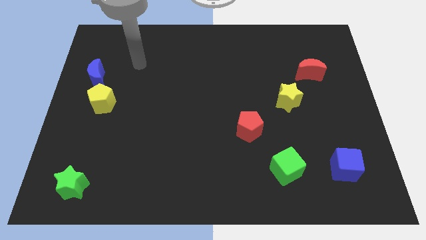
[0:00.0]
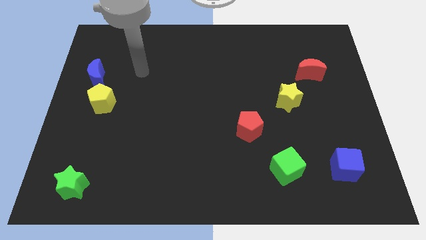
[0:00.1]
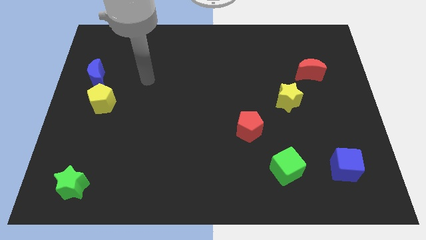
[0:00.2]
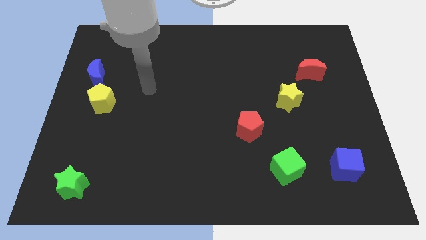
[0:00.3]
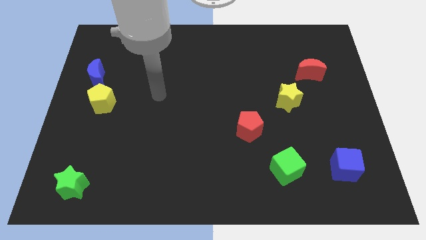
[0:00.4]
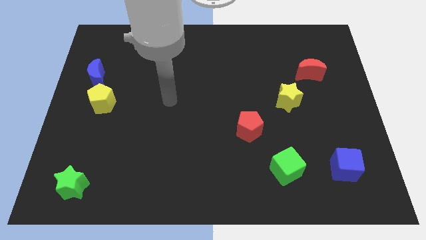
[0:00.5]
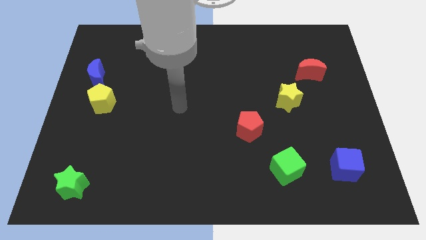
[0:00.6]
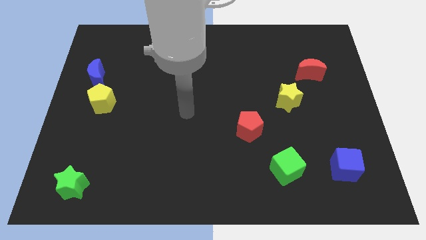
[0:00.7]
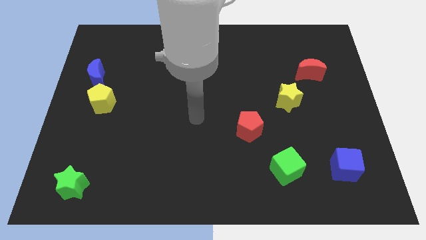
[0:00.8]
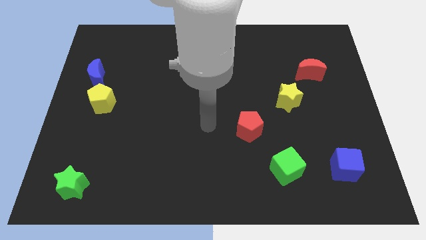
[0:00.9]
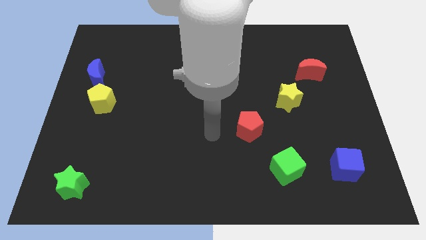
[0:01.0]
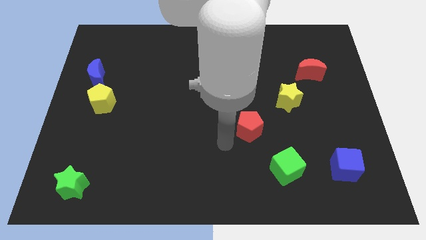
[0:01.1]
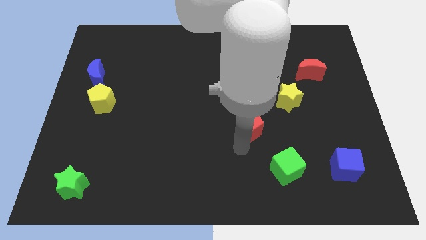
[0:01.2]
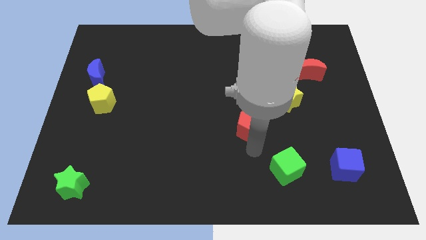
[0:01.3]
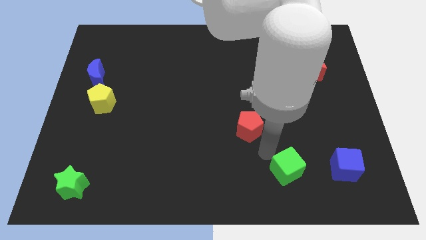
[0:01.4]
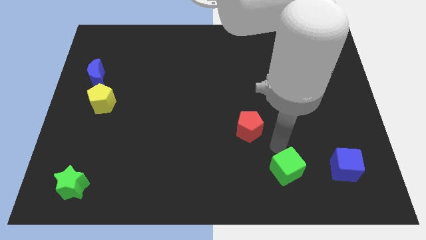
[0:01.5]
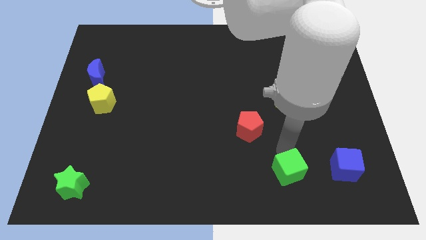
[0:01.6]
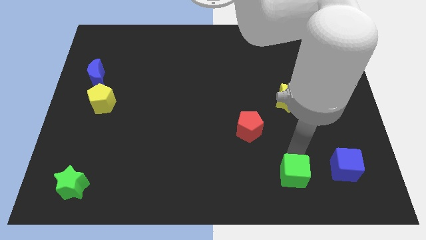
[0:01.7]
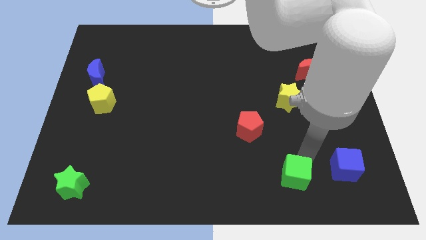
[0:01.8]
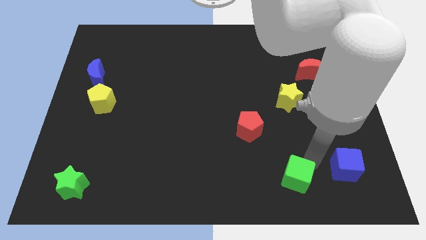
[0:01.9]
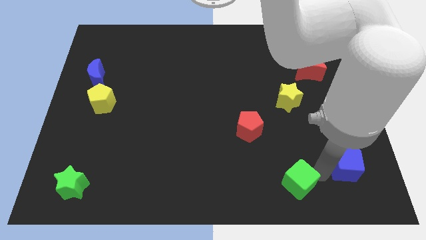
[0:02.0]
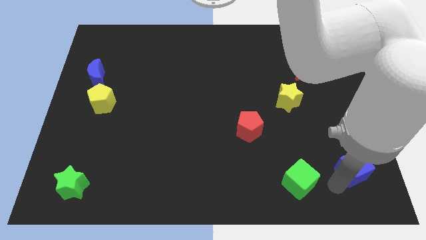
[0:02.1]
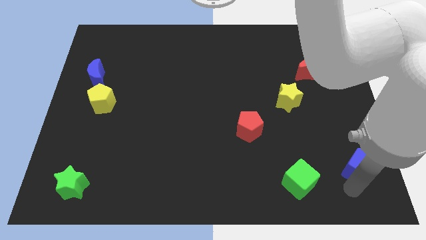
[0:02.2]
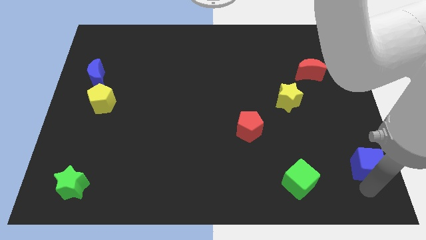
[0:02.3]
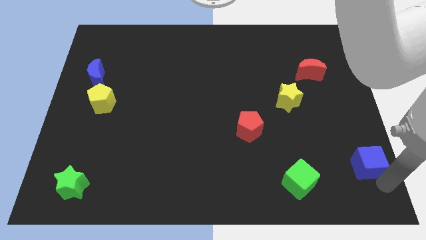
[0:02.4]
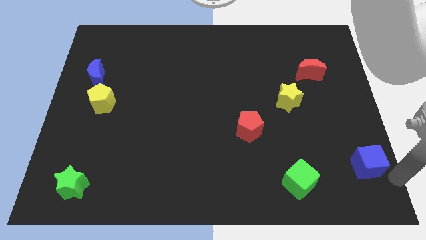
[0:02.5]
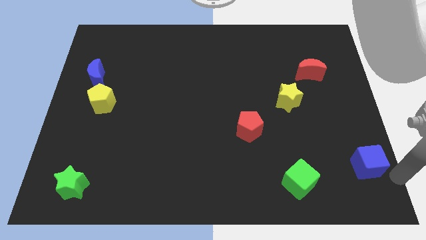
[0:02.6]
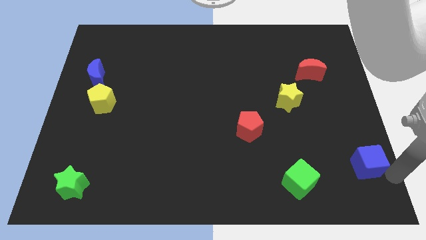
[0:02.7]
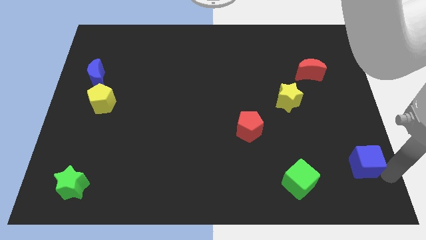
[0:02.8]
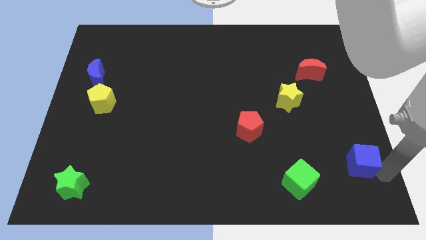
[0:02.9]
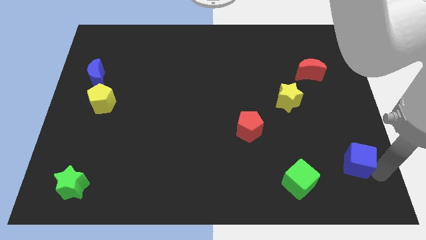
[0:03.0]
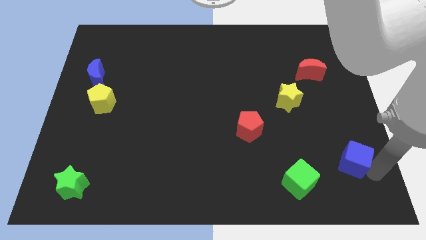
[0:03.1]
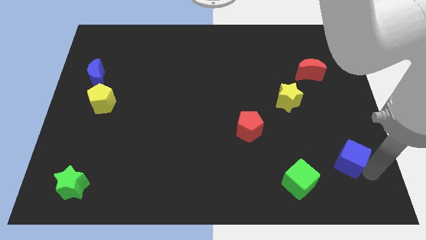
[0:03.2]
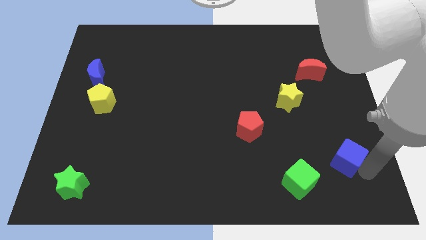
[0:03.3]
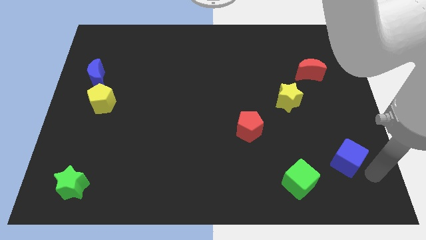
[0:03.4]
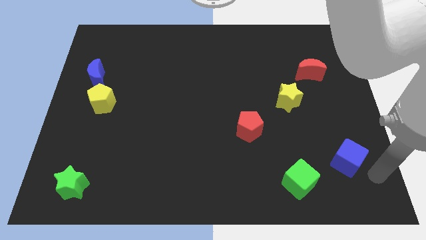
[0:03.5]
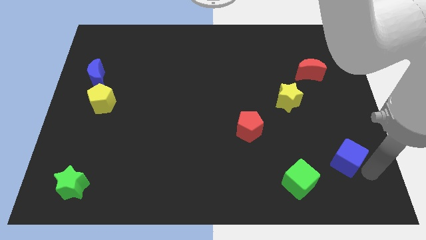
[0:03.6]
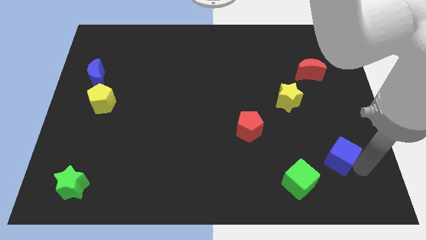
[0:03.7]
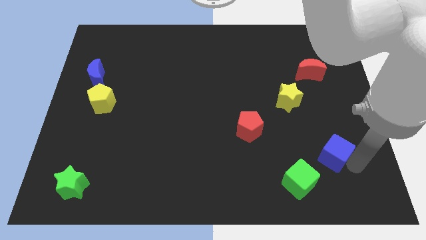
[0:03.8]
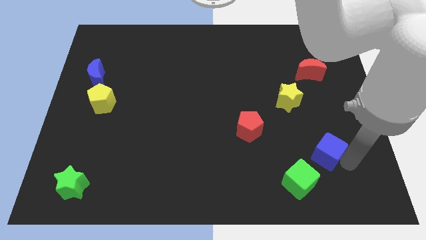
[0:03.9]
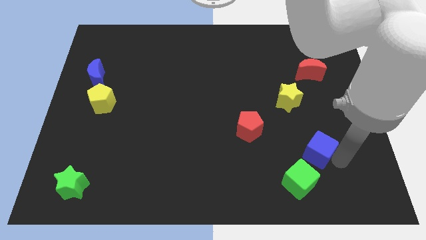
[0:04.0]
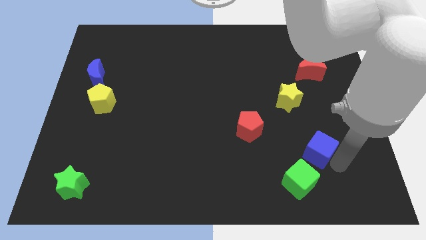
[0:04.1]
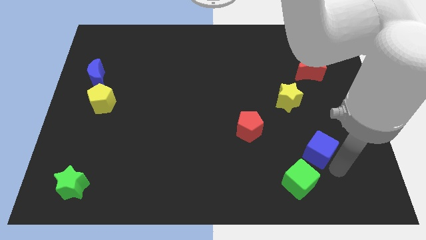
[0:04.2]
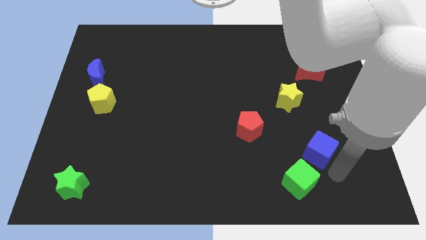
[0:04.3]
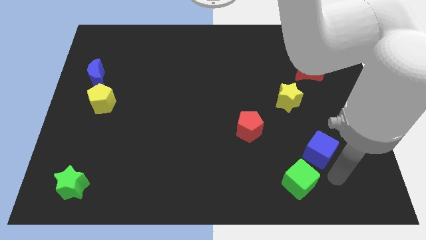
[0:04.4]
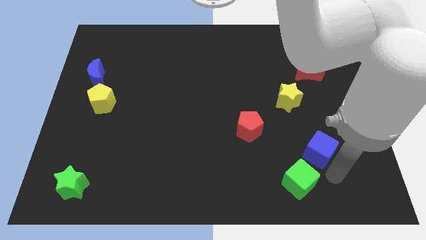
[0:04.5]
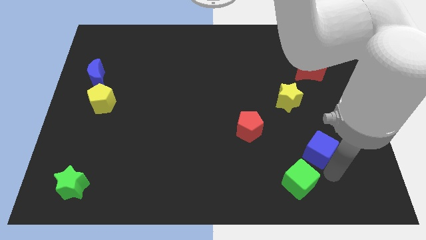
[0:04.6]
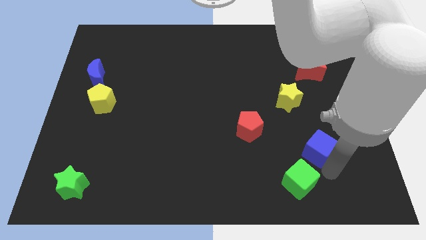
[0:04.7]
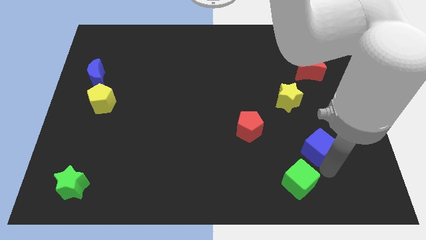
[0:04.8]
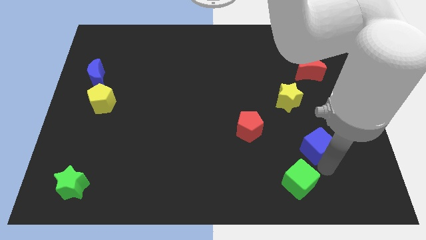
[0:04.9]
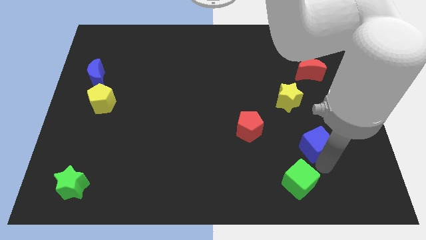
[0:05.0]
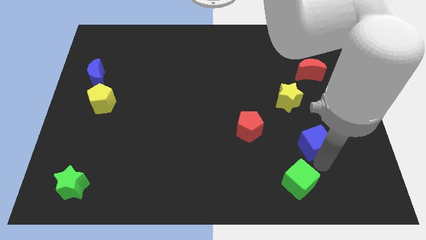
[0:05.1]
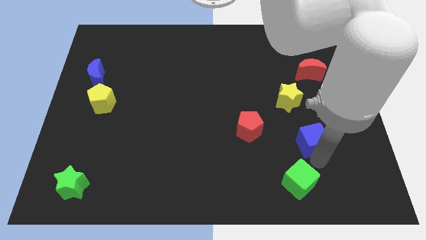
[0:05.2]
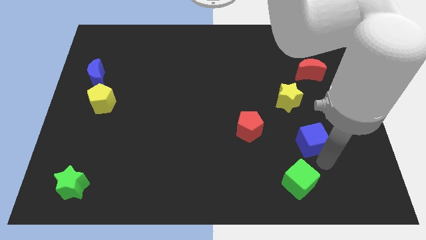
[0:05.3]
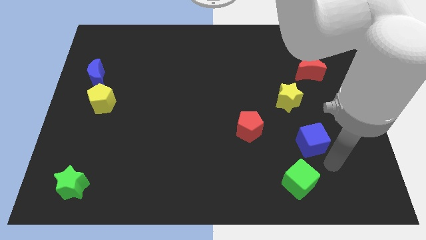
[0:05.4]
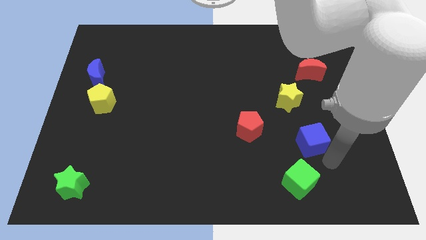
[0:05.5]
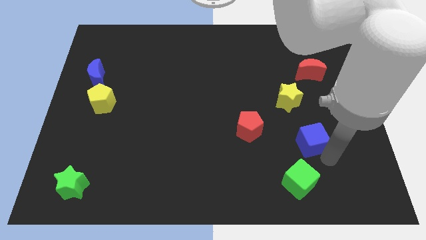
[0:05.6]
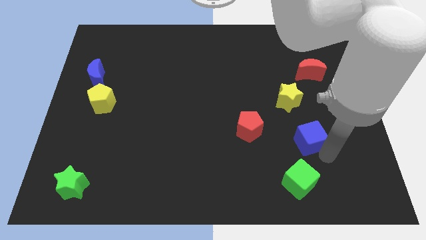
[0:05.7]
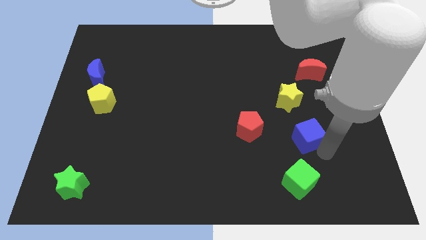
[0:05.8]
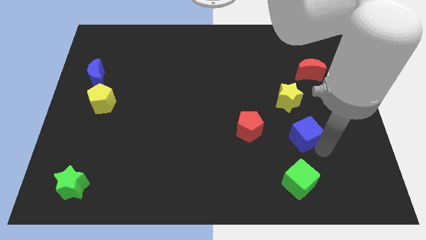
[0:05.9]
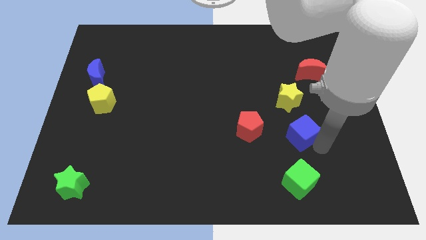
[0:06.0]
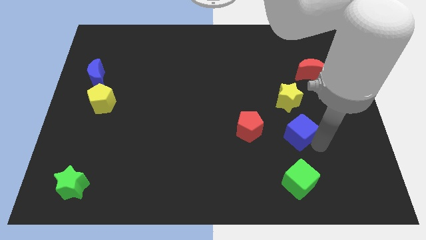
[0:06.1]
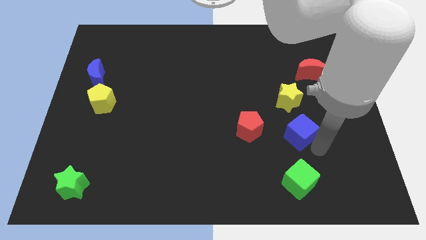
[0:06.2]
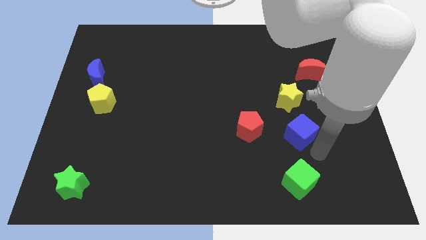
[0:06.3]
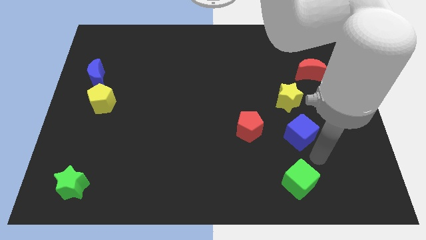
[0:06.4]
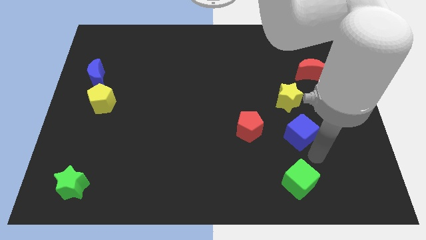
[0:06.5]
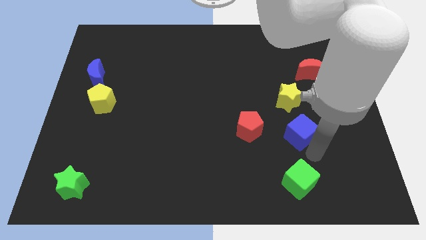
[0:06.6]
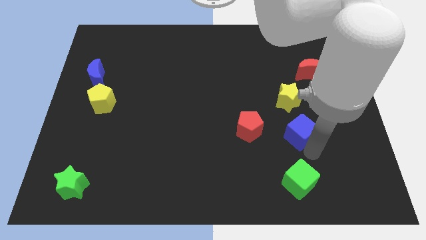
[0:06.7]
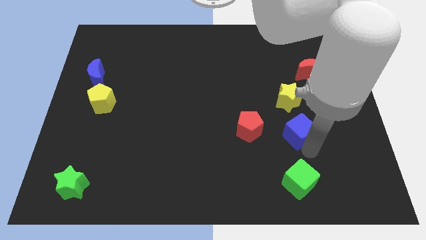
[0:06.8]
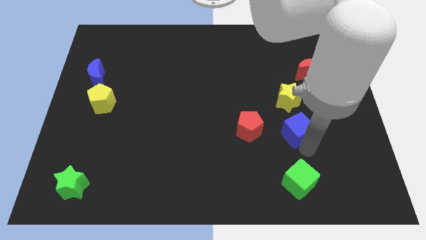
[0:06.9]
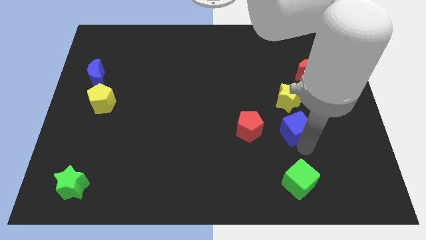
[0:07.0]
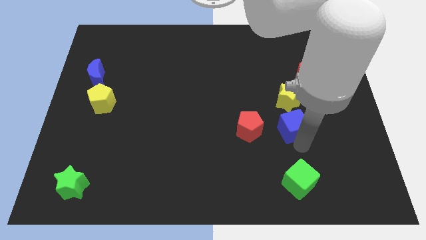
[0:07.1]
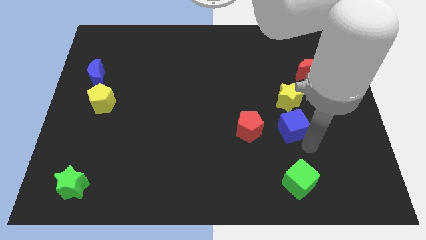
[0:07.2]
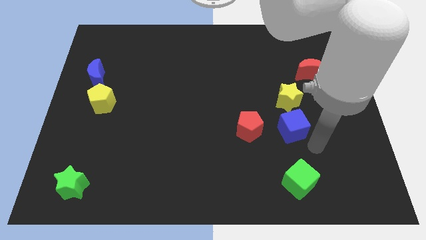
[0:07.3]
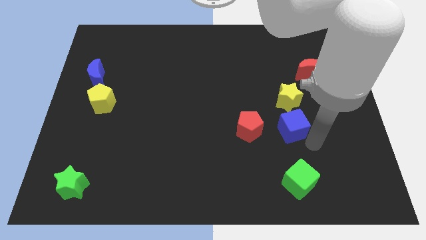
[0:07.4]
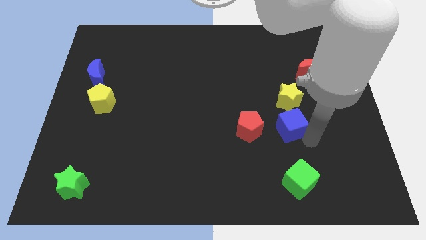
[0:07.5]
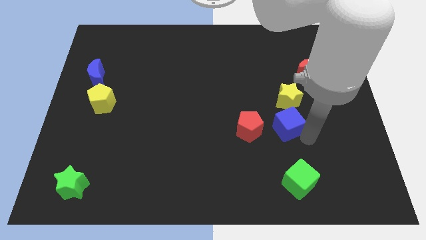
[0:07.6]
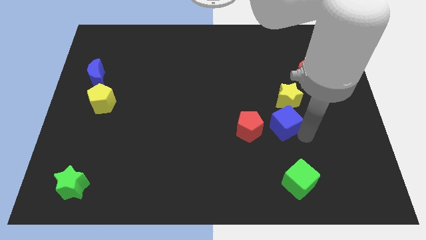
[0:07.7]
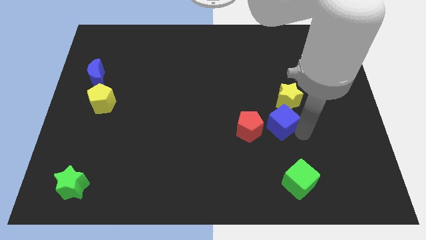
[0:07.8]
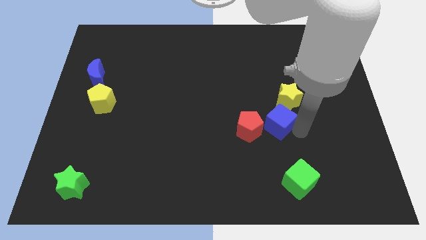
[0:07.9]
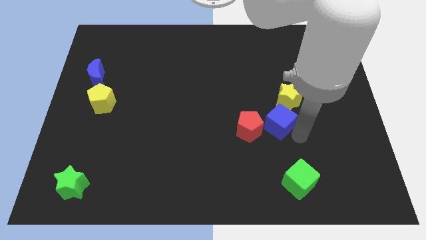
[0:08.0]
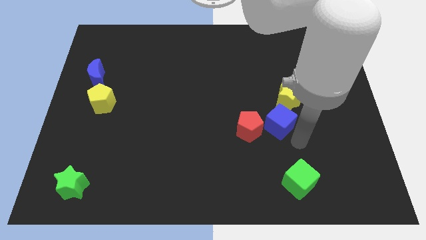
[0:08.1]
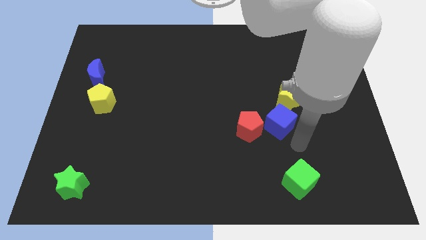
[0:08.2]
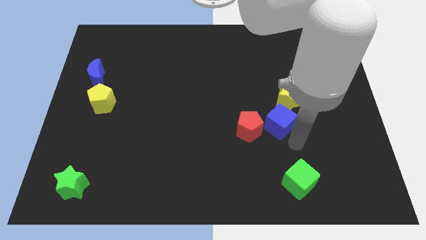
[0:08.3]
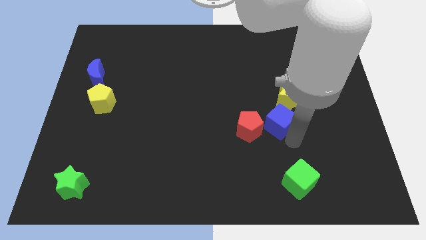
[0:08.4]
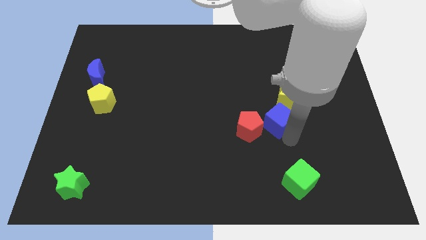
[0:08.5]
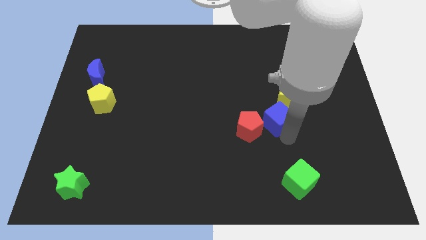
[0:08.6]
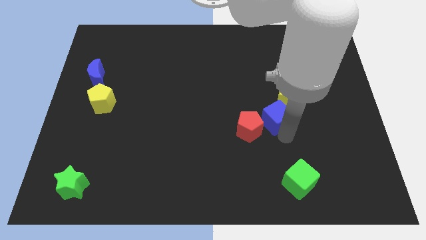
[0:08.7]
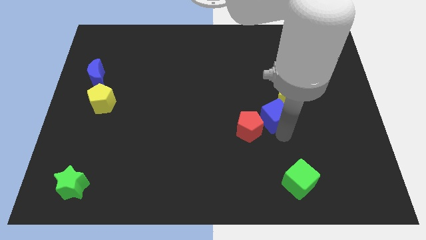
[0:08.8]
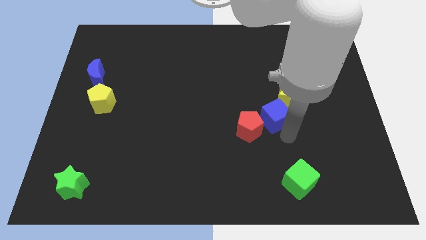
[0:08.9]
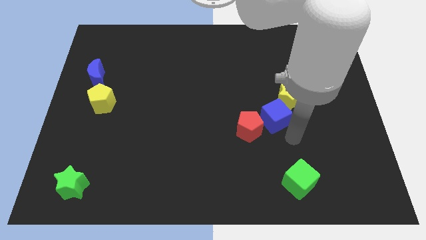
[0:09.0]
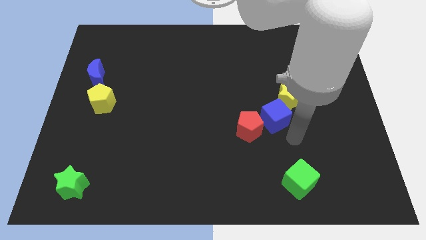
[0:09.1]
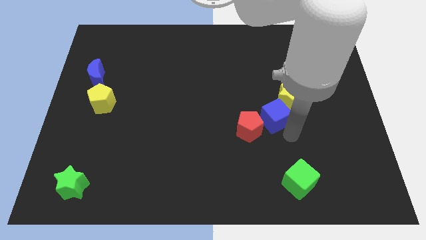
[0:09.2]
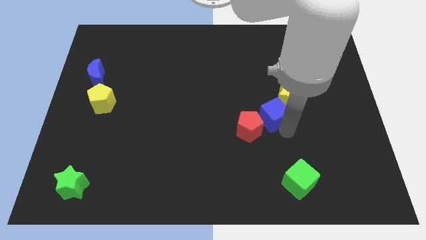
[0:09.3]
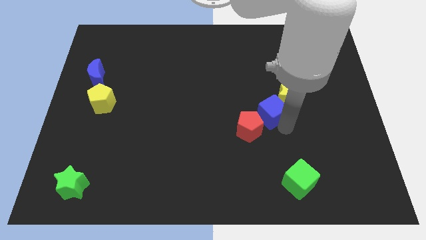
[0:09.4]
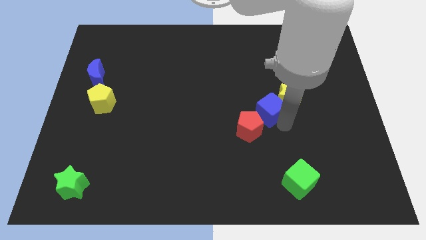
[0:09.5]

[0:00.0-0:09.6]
slide the blue cube up and left diagonally
